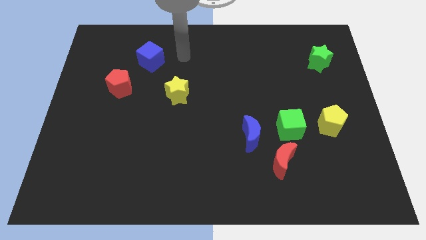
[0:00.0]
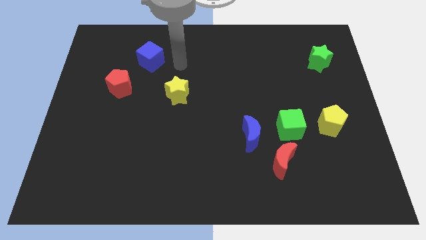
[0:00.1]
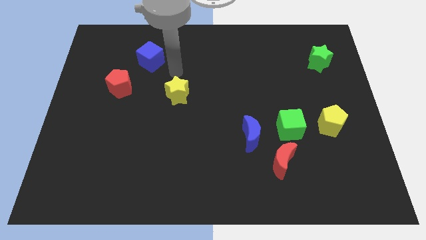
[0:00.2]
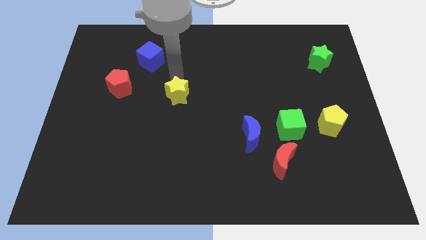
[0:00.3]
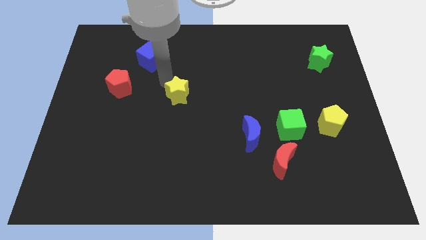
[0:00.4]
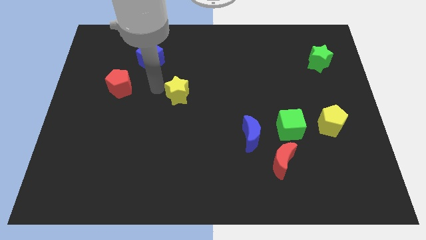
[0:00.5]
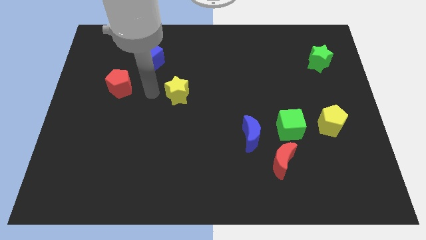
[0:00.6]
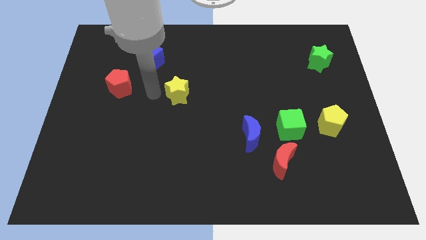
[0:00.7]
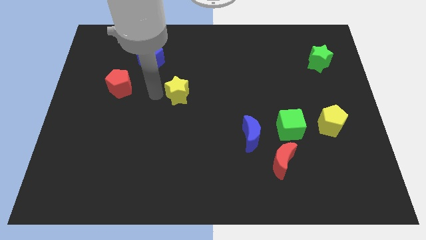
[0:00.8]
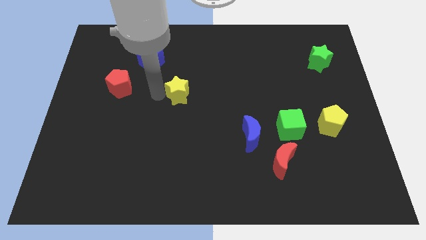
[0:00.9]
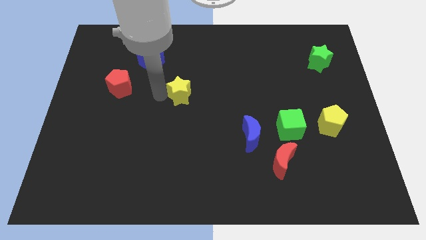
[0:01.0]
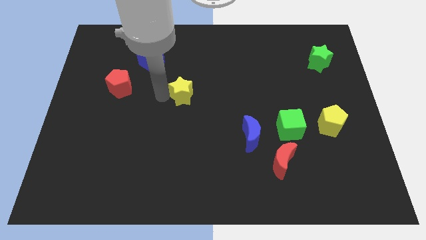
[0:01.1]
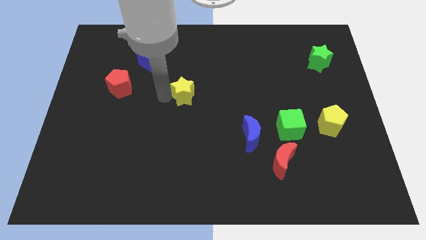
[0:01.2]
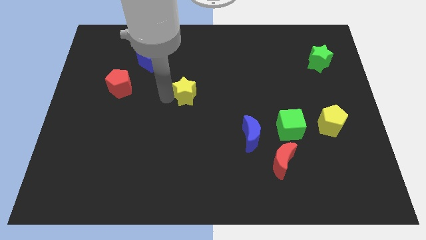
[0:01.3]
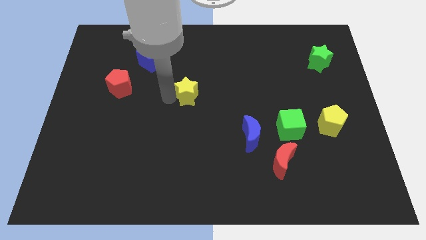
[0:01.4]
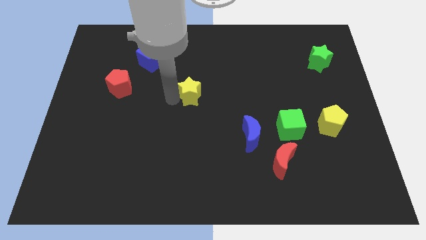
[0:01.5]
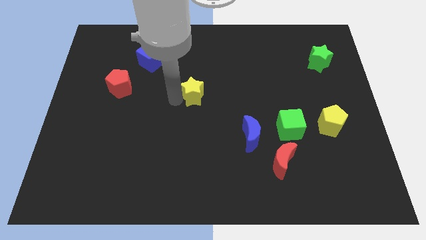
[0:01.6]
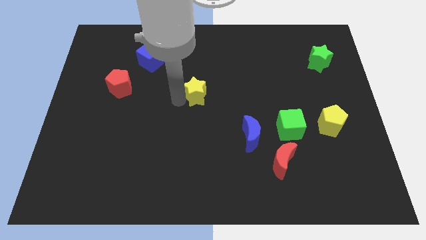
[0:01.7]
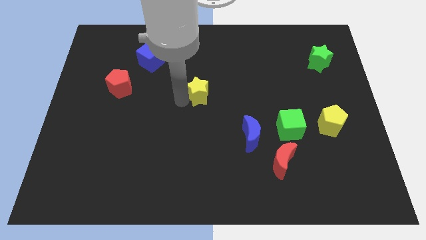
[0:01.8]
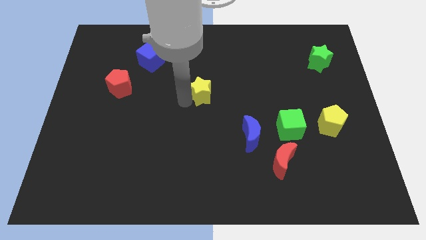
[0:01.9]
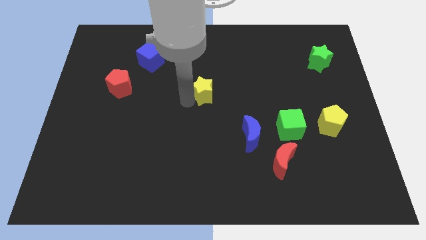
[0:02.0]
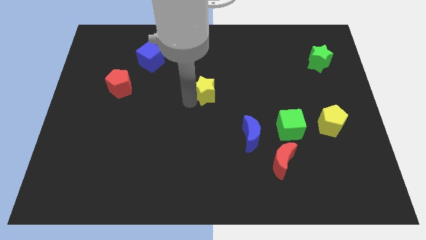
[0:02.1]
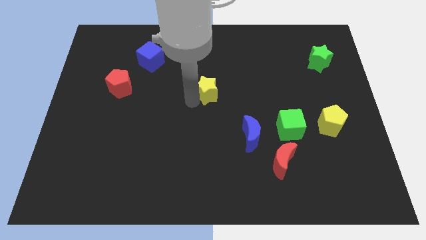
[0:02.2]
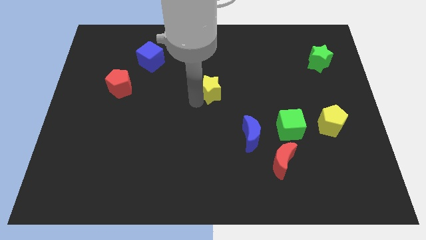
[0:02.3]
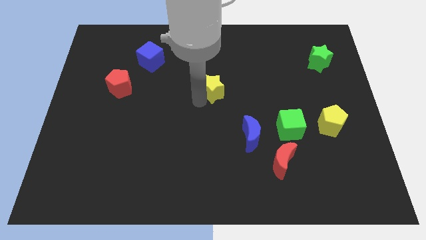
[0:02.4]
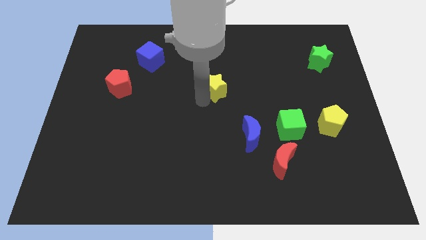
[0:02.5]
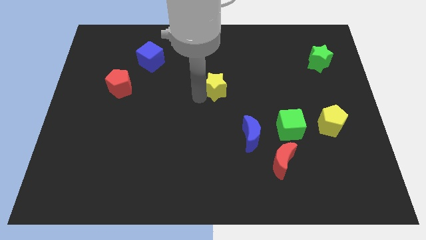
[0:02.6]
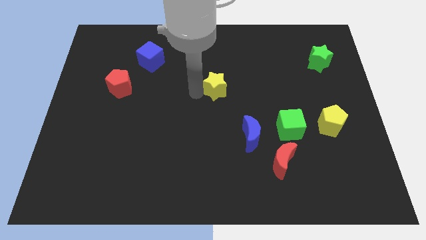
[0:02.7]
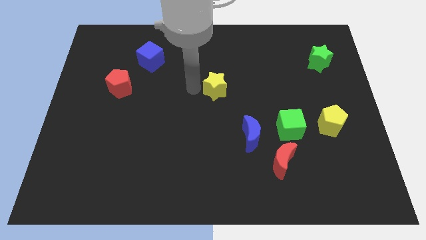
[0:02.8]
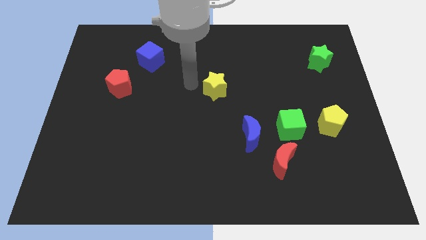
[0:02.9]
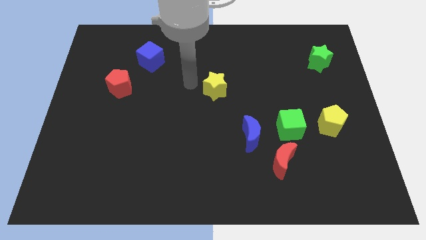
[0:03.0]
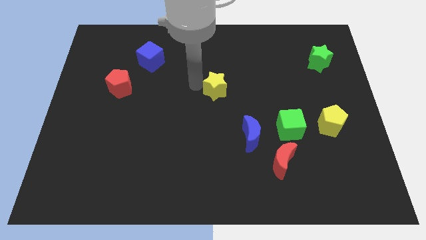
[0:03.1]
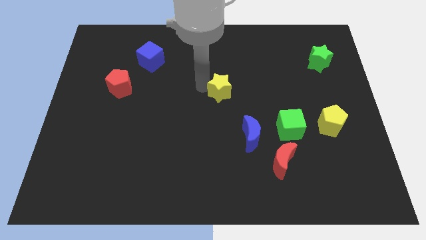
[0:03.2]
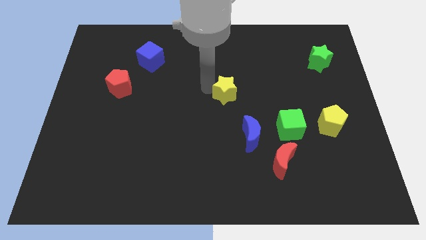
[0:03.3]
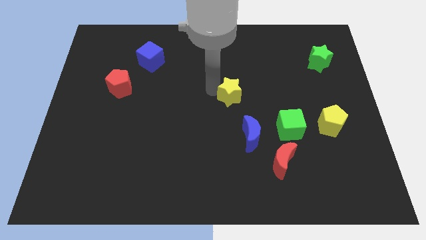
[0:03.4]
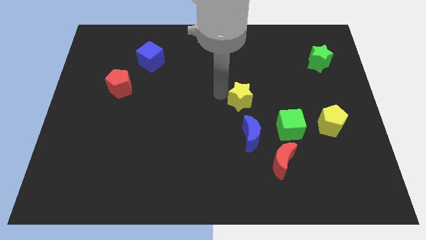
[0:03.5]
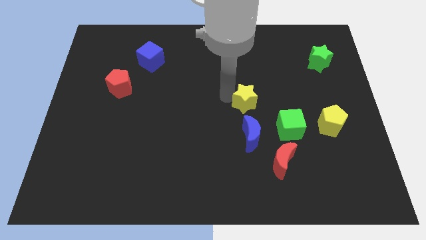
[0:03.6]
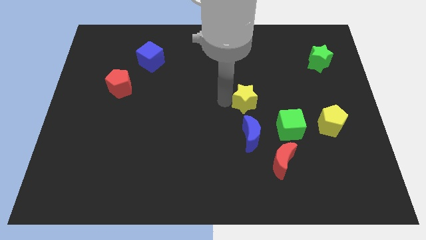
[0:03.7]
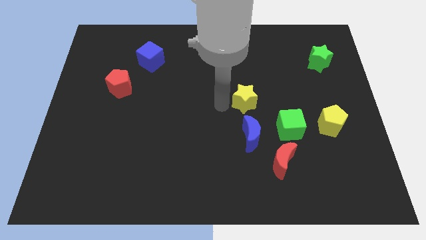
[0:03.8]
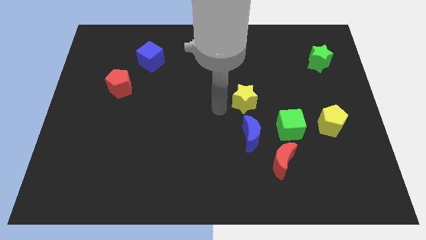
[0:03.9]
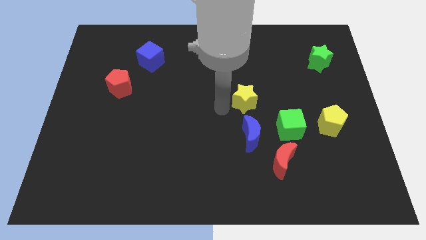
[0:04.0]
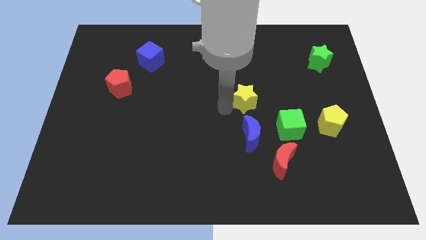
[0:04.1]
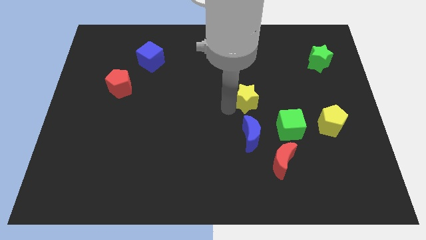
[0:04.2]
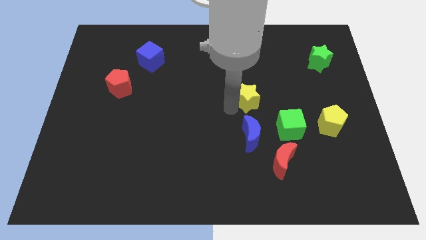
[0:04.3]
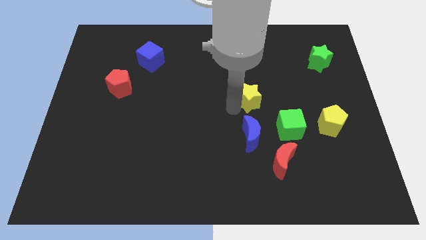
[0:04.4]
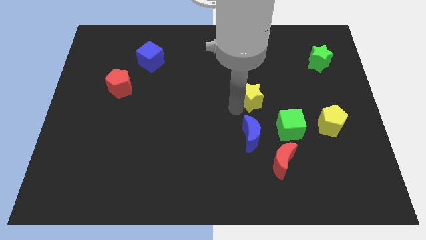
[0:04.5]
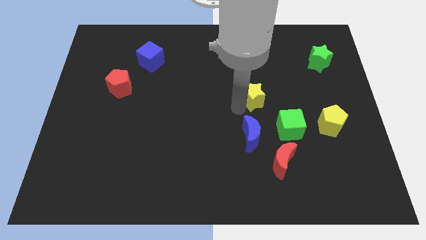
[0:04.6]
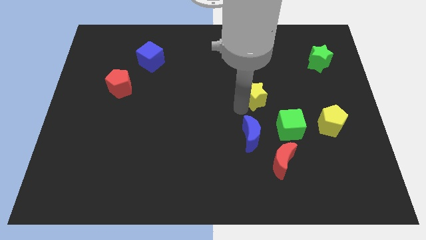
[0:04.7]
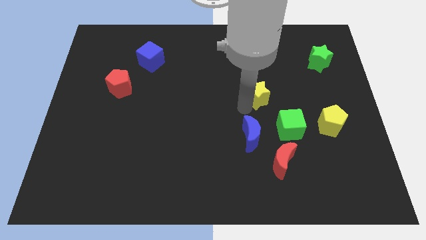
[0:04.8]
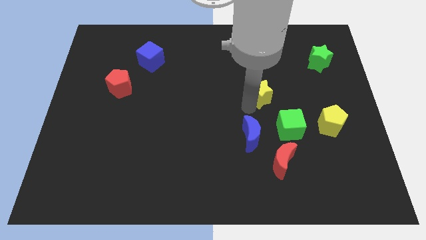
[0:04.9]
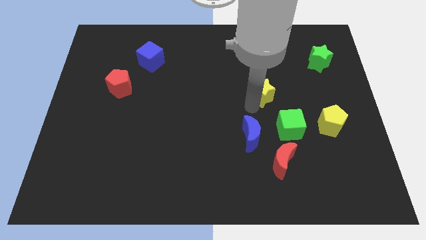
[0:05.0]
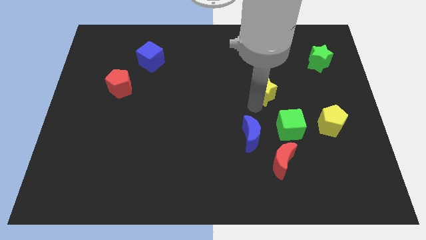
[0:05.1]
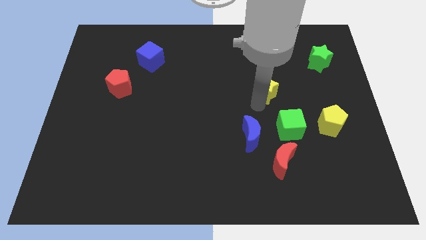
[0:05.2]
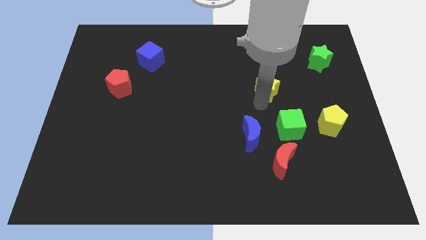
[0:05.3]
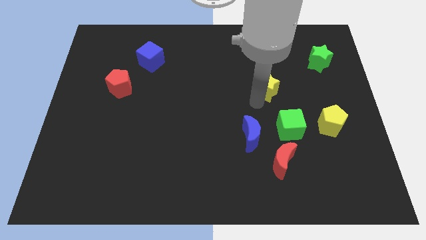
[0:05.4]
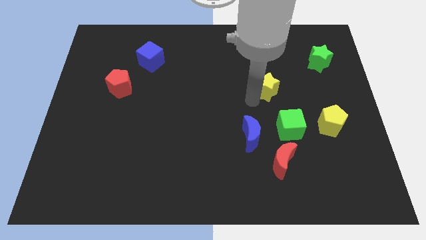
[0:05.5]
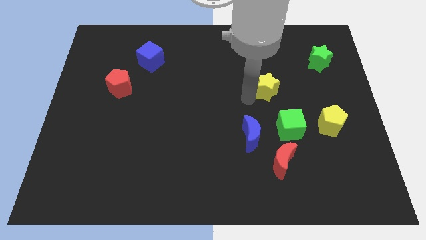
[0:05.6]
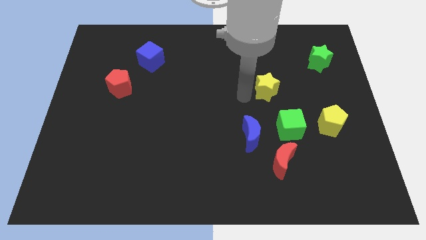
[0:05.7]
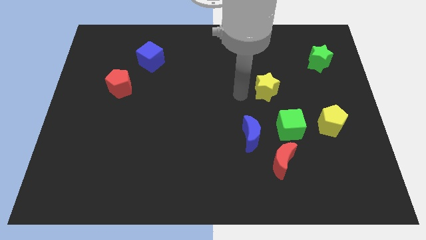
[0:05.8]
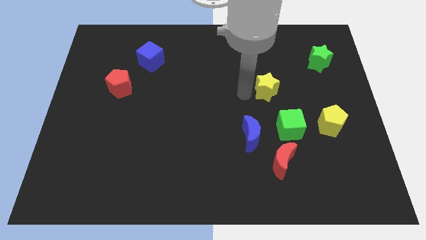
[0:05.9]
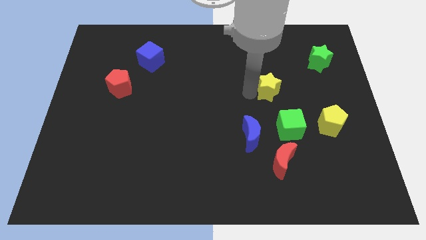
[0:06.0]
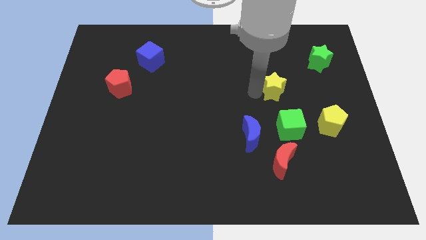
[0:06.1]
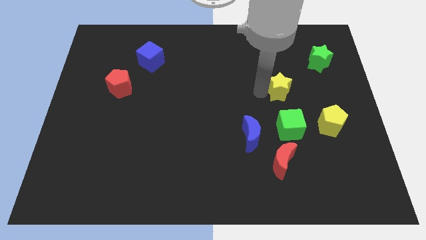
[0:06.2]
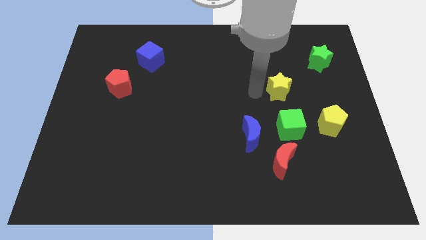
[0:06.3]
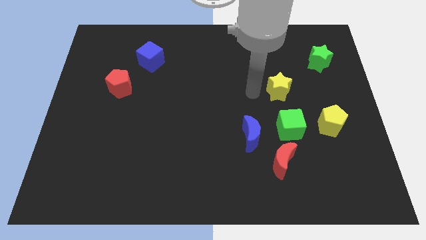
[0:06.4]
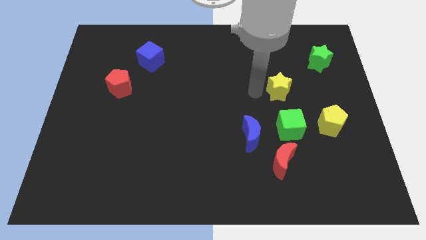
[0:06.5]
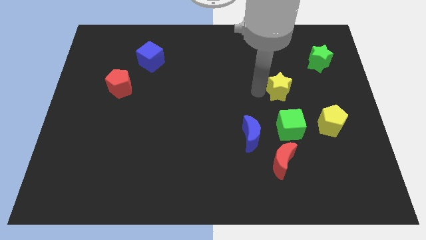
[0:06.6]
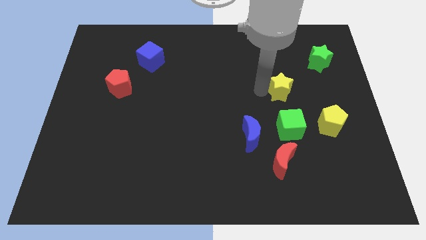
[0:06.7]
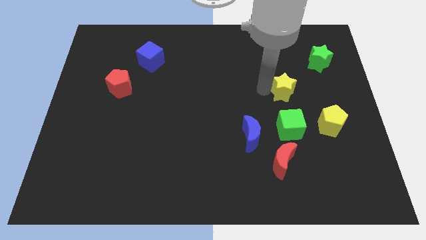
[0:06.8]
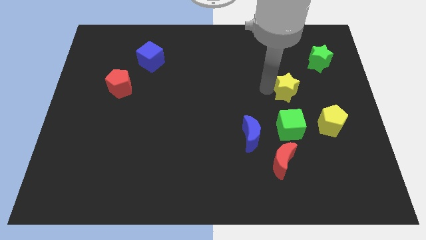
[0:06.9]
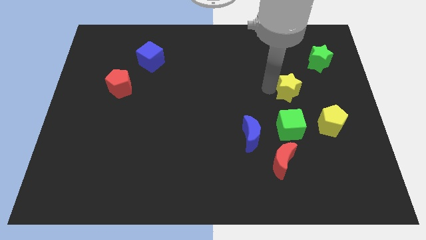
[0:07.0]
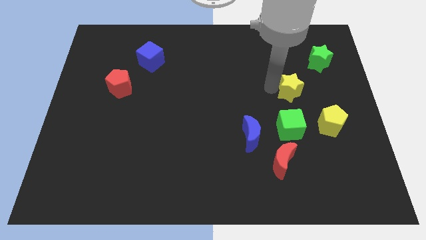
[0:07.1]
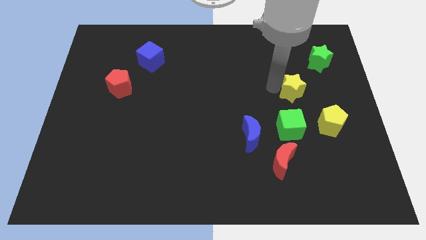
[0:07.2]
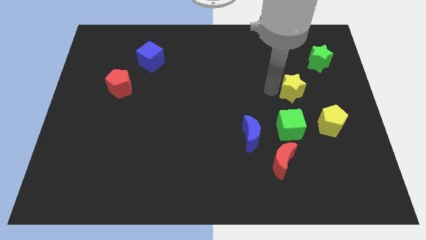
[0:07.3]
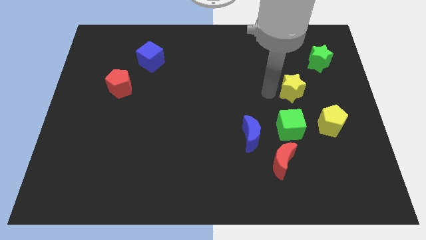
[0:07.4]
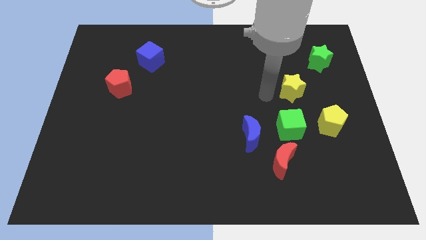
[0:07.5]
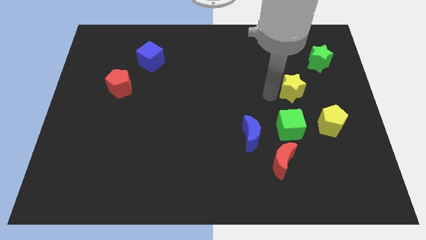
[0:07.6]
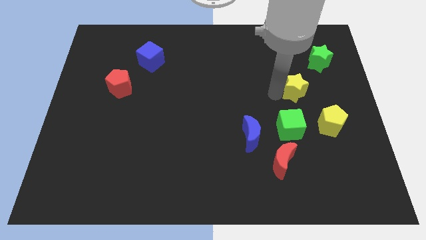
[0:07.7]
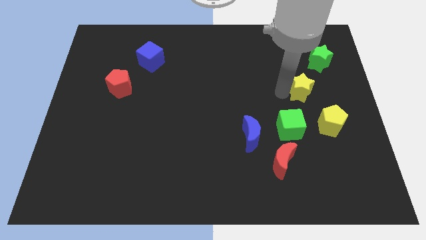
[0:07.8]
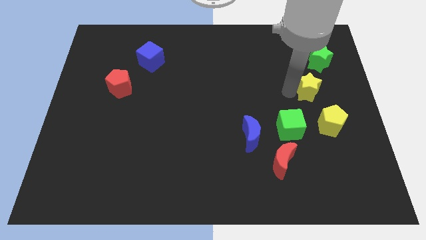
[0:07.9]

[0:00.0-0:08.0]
push the yellow star to the bottom side of the green star
